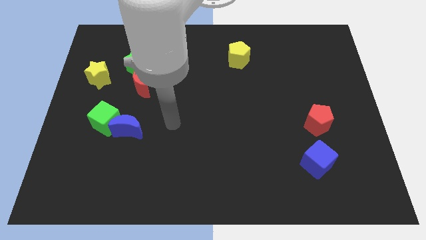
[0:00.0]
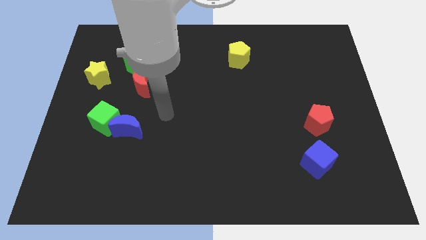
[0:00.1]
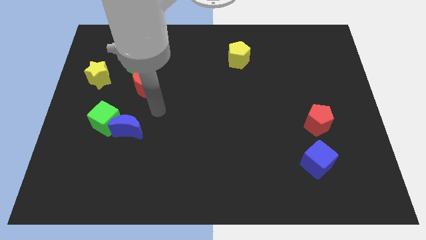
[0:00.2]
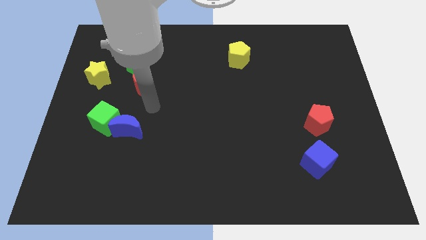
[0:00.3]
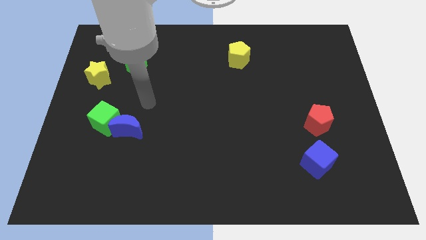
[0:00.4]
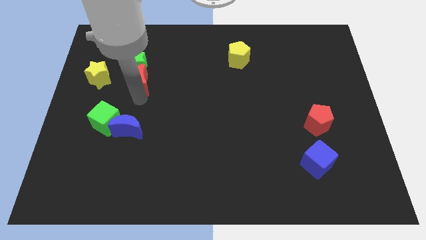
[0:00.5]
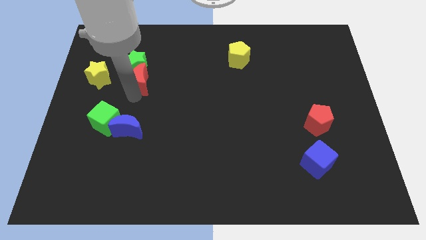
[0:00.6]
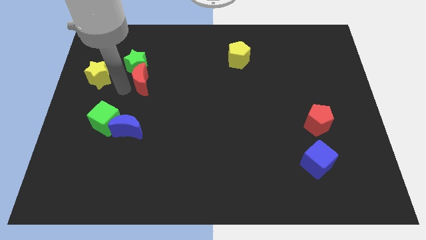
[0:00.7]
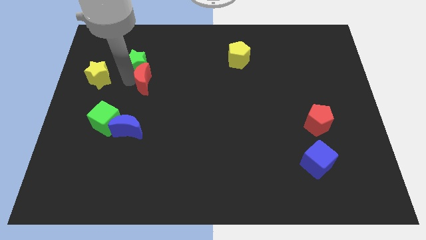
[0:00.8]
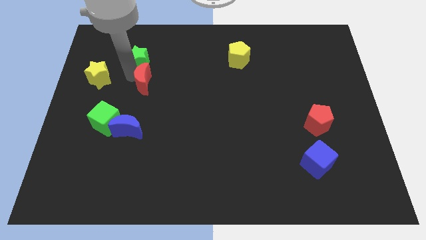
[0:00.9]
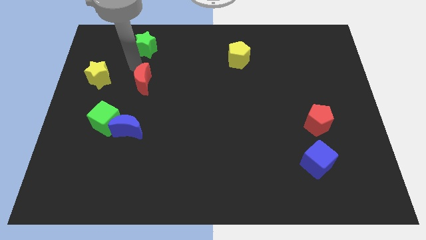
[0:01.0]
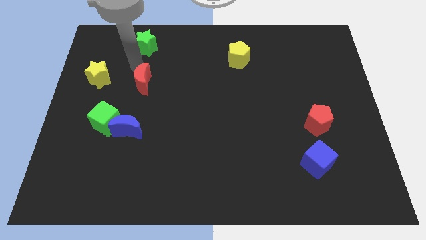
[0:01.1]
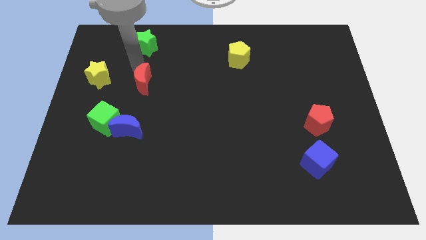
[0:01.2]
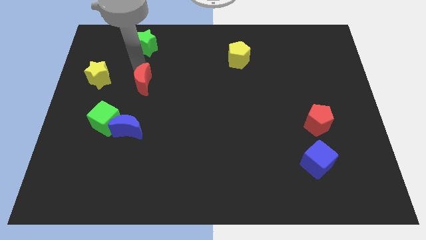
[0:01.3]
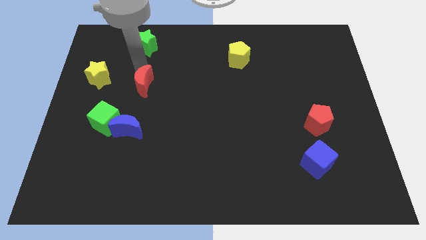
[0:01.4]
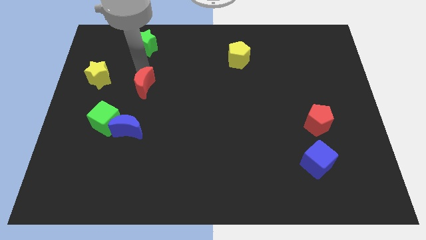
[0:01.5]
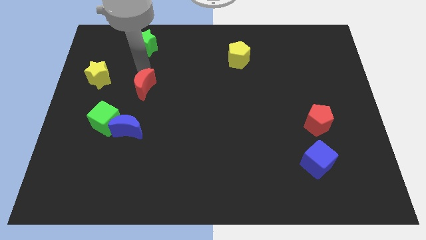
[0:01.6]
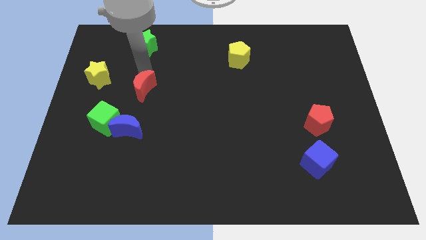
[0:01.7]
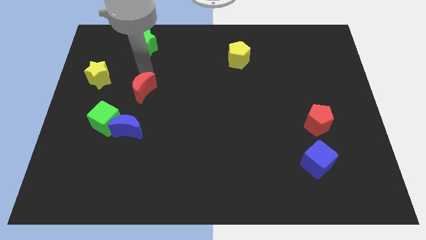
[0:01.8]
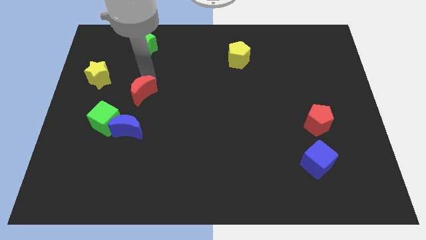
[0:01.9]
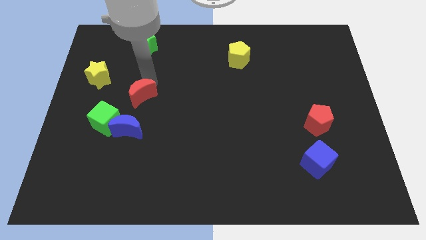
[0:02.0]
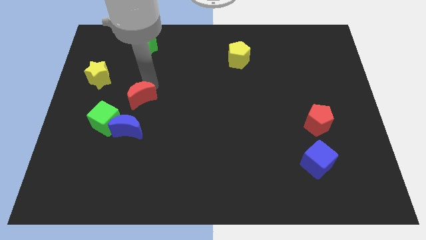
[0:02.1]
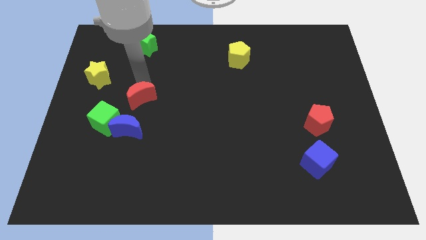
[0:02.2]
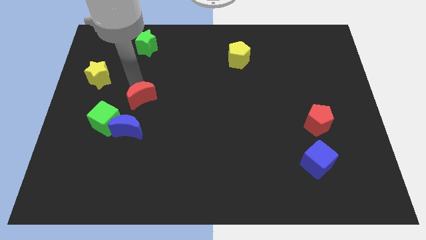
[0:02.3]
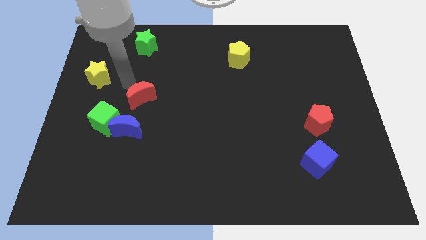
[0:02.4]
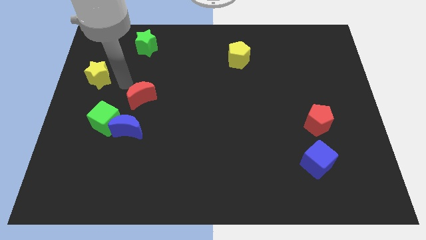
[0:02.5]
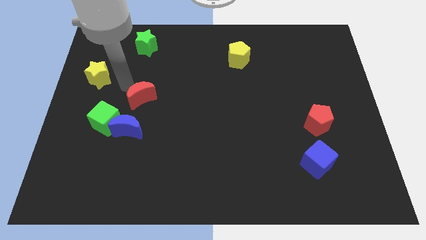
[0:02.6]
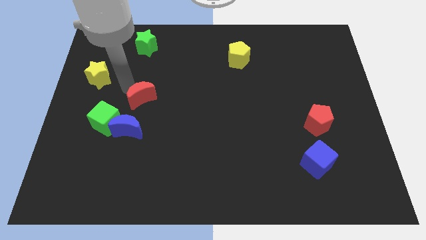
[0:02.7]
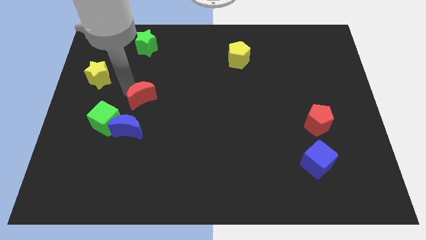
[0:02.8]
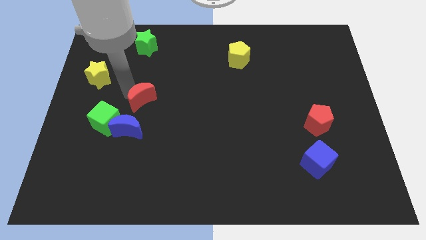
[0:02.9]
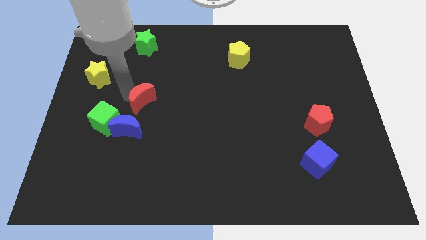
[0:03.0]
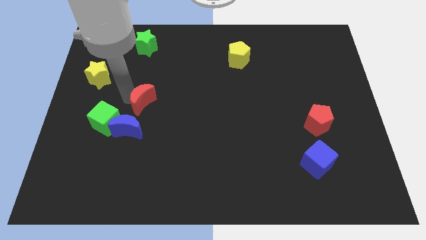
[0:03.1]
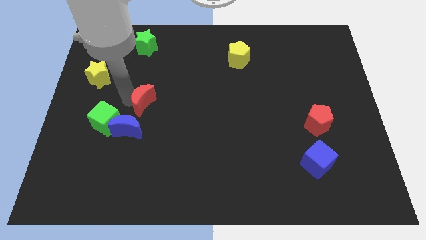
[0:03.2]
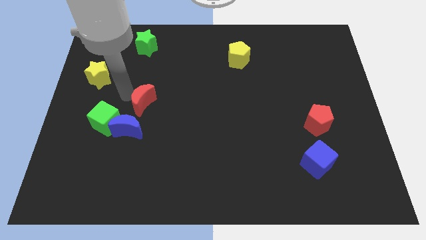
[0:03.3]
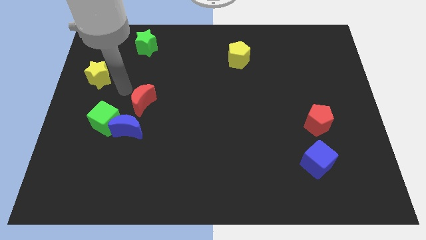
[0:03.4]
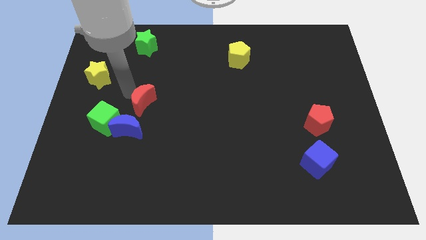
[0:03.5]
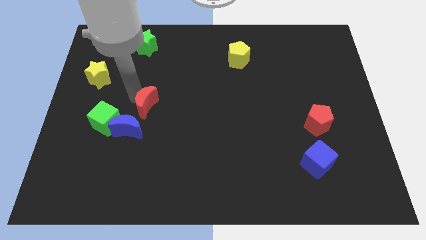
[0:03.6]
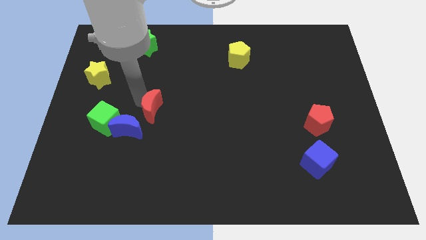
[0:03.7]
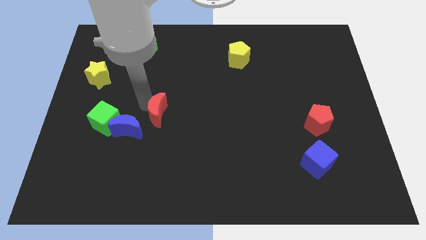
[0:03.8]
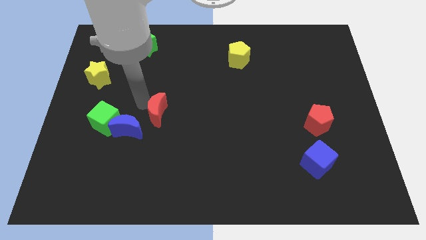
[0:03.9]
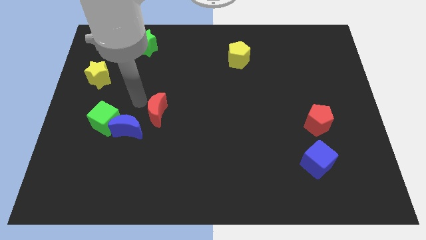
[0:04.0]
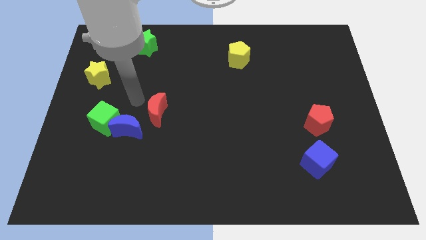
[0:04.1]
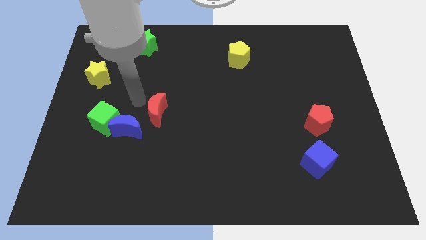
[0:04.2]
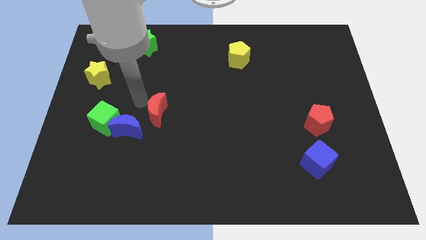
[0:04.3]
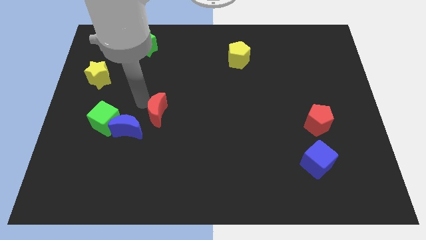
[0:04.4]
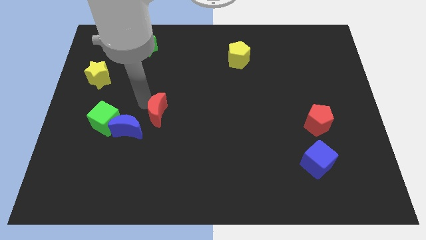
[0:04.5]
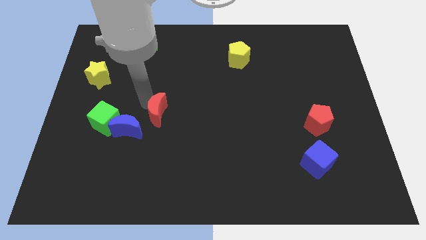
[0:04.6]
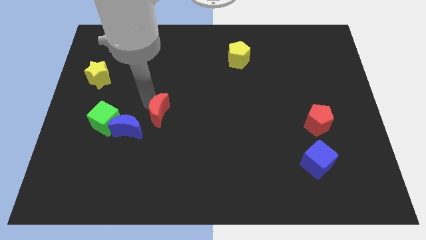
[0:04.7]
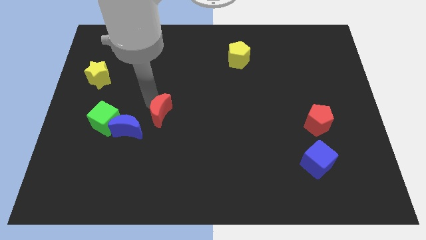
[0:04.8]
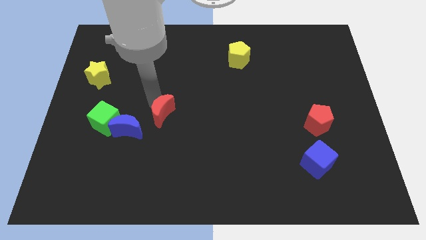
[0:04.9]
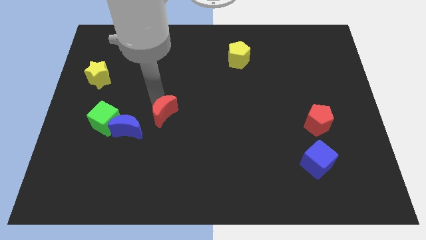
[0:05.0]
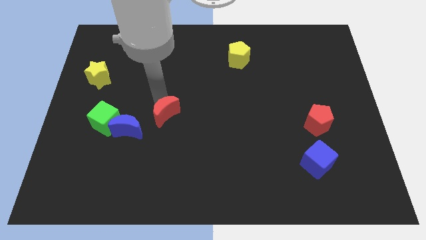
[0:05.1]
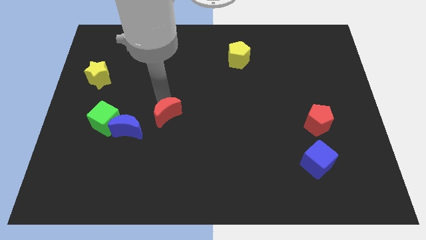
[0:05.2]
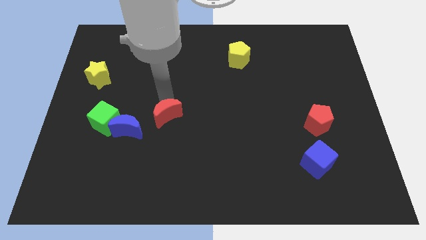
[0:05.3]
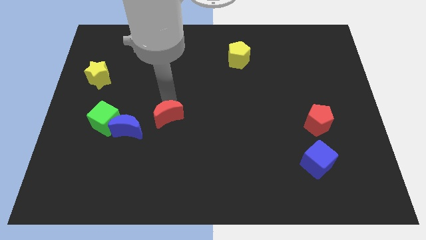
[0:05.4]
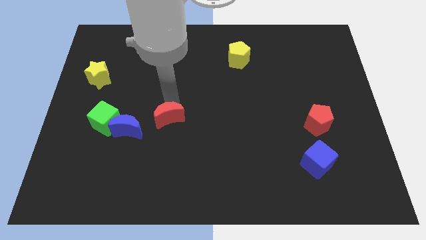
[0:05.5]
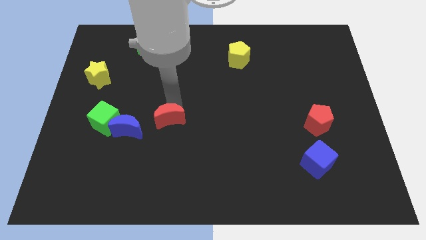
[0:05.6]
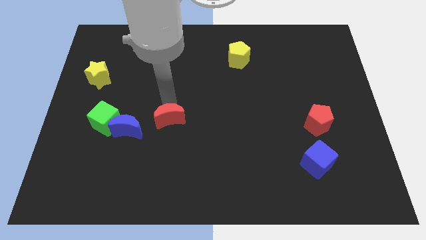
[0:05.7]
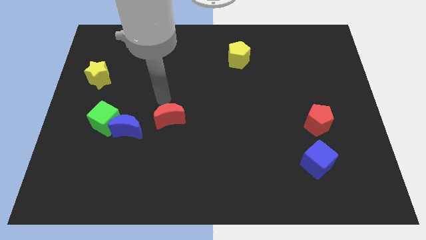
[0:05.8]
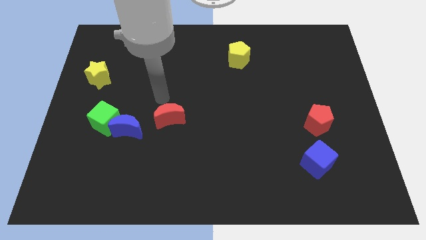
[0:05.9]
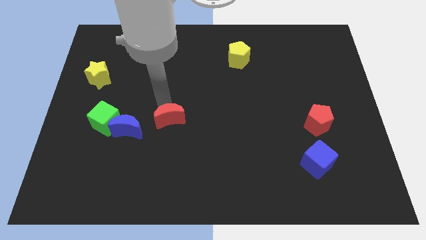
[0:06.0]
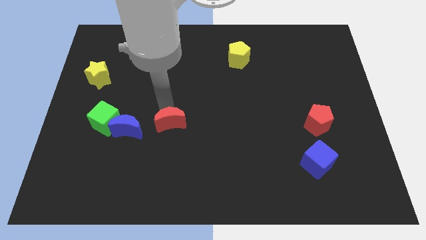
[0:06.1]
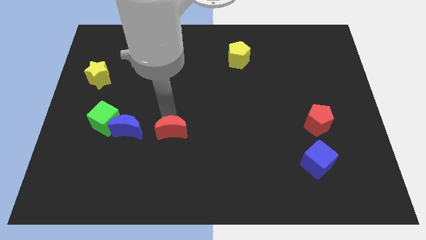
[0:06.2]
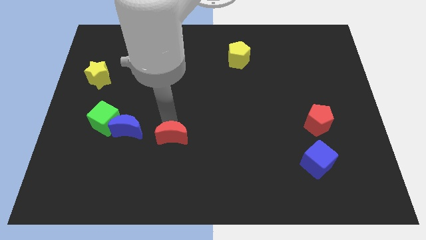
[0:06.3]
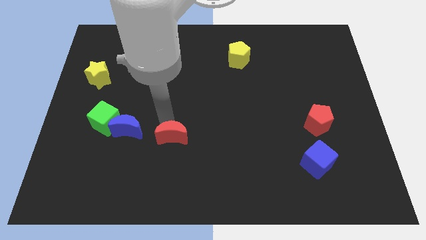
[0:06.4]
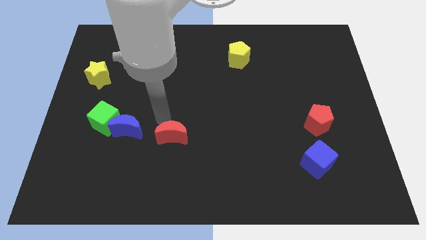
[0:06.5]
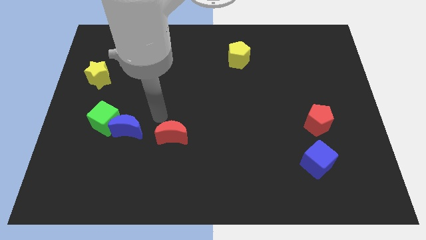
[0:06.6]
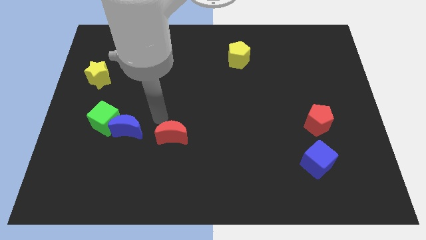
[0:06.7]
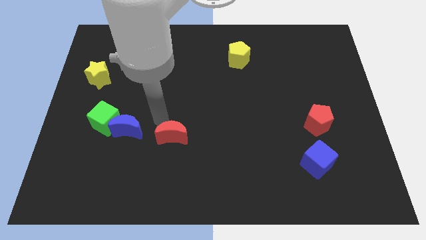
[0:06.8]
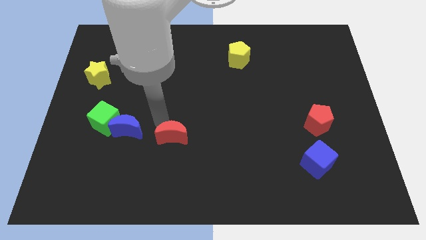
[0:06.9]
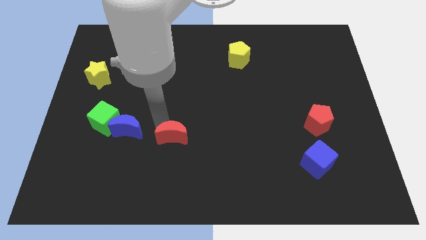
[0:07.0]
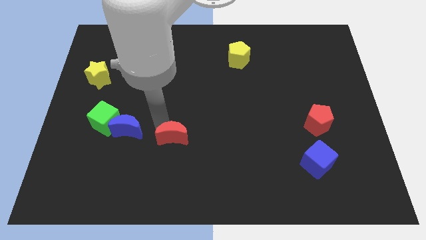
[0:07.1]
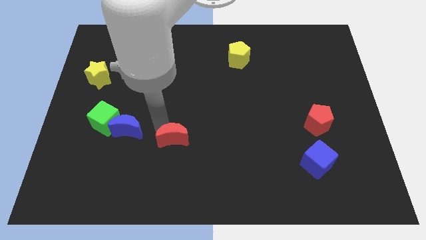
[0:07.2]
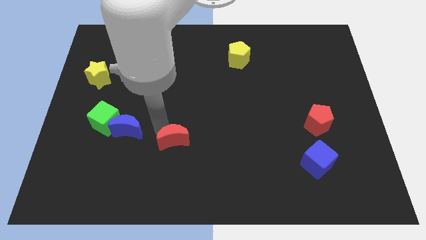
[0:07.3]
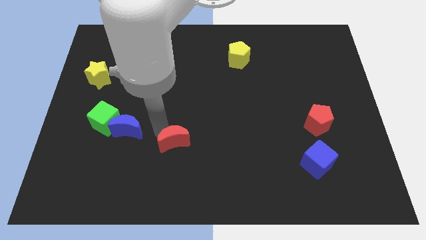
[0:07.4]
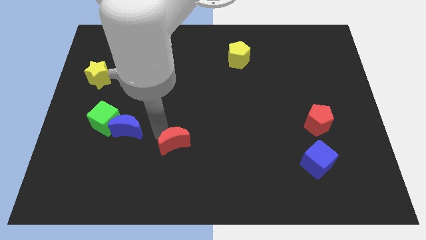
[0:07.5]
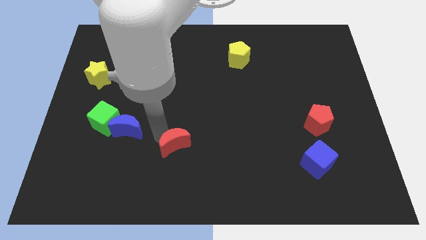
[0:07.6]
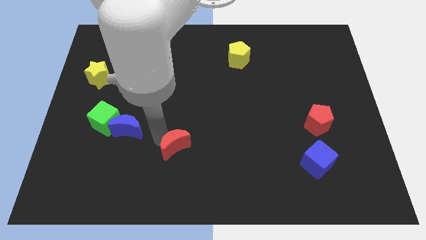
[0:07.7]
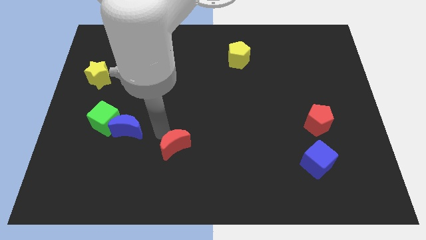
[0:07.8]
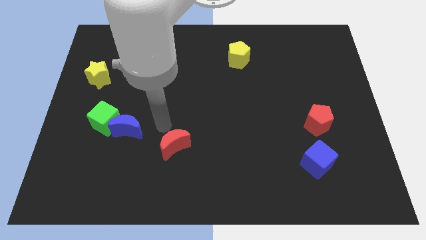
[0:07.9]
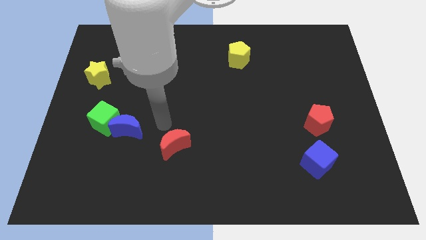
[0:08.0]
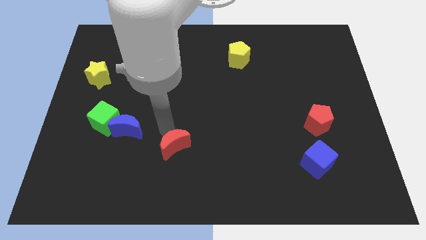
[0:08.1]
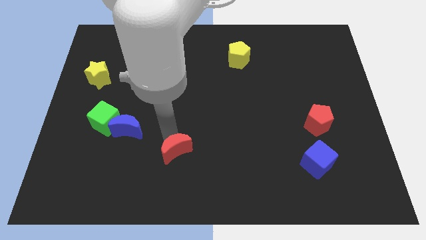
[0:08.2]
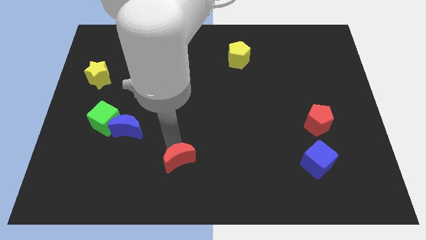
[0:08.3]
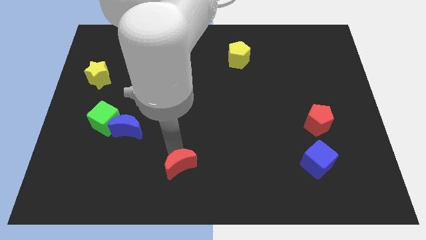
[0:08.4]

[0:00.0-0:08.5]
push the red moon to the bottom
